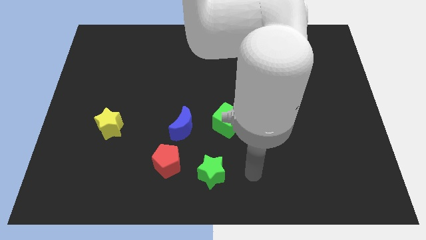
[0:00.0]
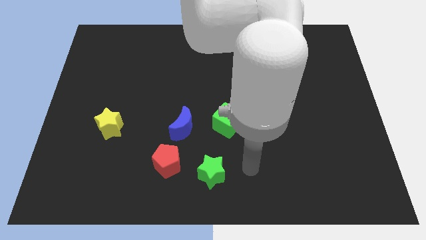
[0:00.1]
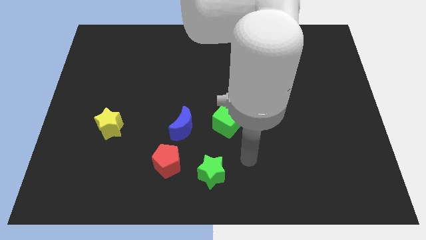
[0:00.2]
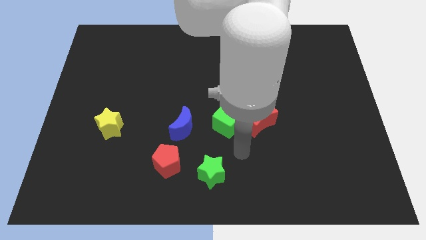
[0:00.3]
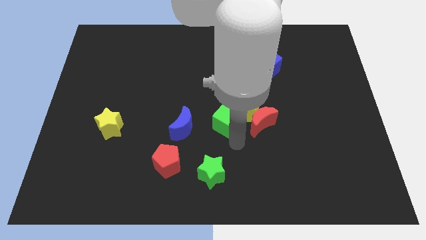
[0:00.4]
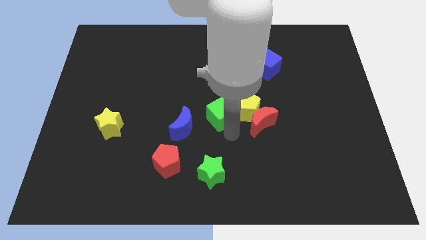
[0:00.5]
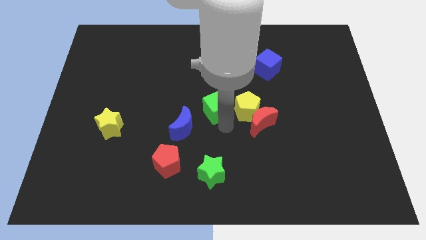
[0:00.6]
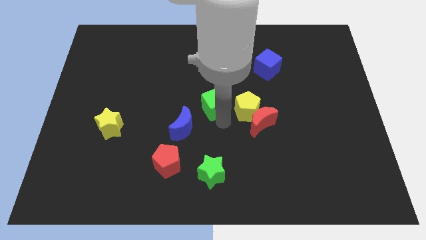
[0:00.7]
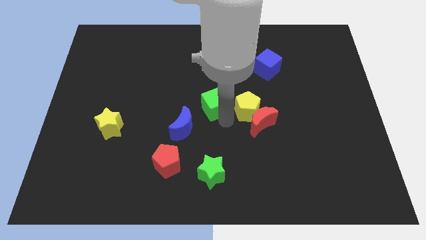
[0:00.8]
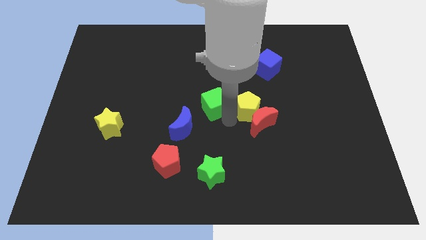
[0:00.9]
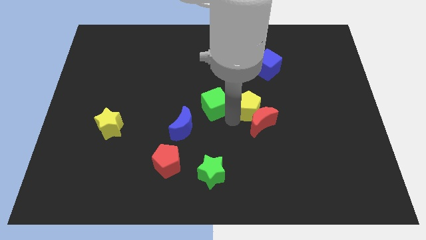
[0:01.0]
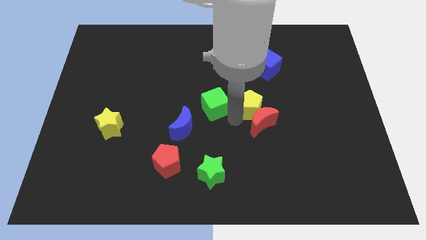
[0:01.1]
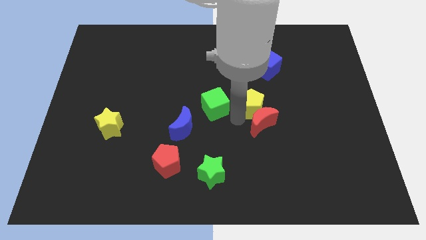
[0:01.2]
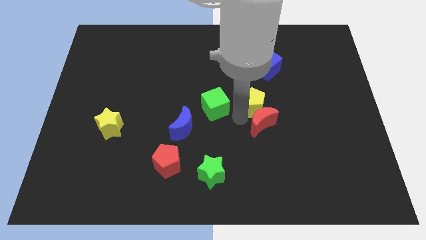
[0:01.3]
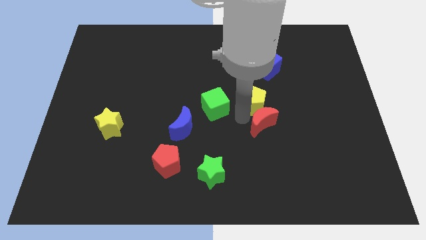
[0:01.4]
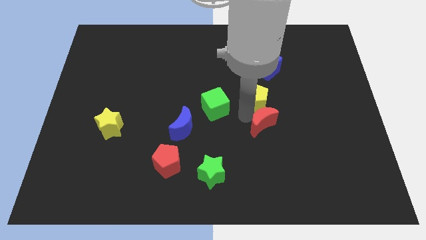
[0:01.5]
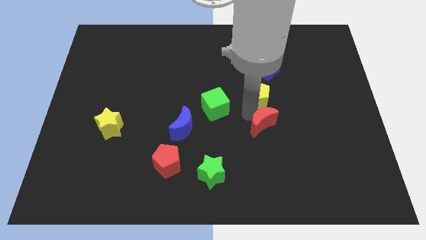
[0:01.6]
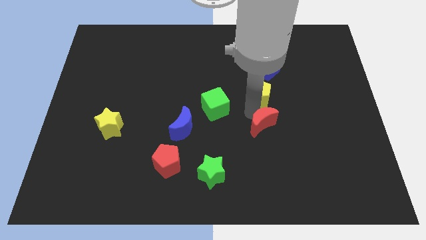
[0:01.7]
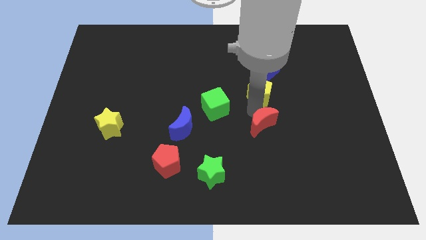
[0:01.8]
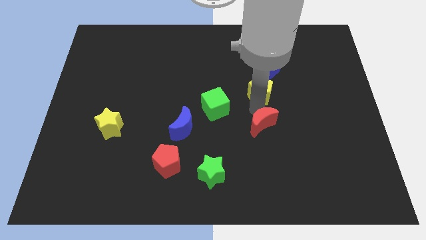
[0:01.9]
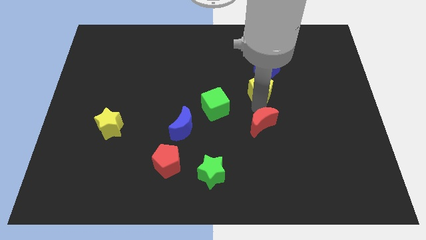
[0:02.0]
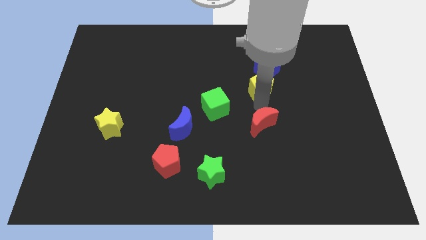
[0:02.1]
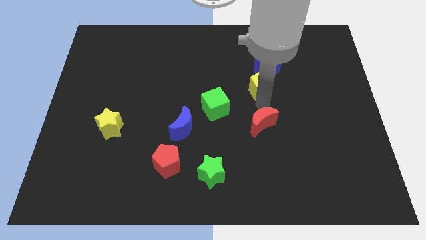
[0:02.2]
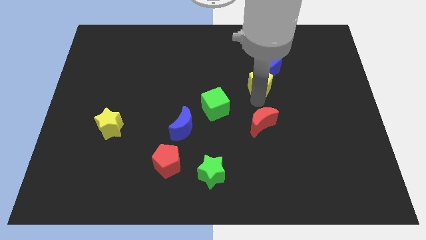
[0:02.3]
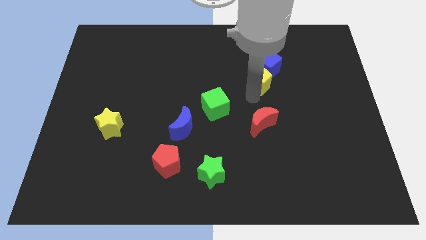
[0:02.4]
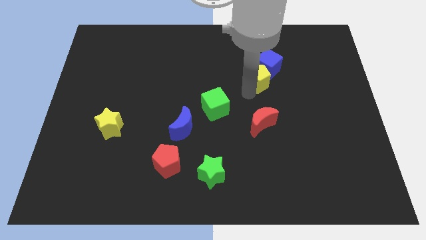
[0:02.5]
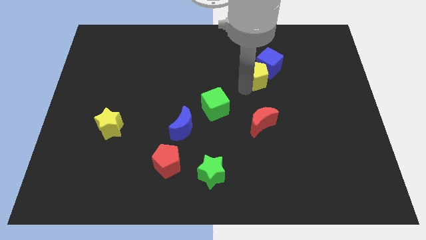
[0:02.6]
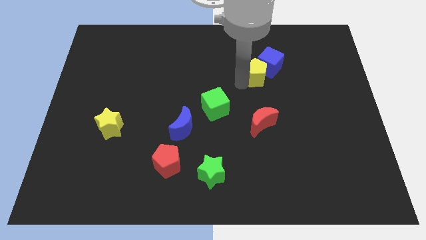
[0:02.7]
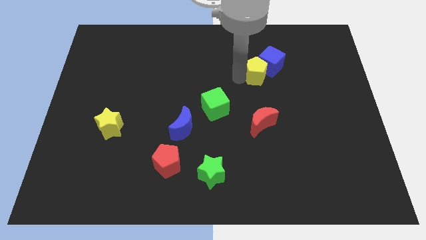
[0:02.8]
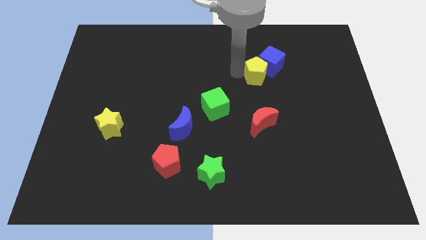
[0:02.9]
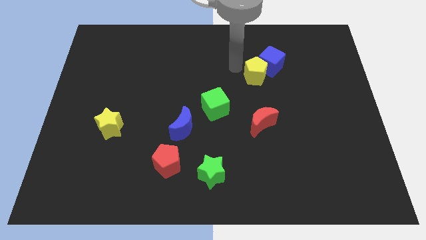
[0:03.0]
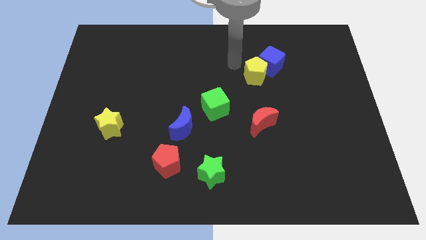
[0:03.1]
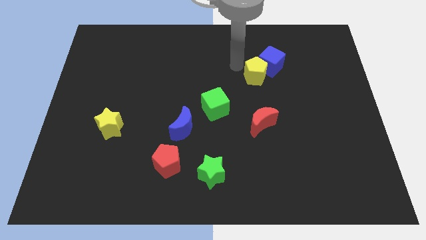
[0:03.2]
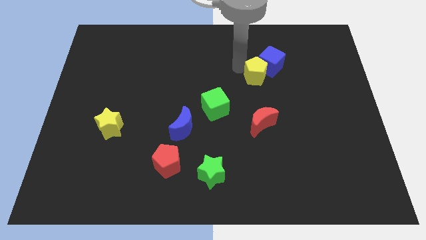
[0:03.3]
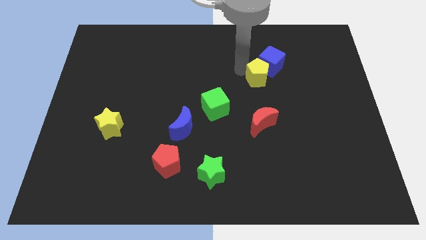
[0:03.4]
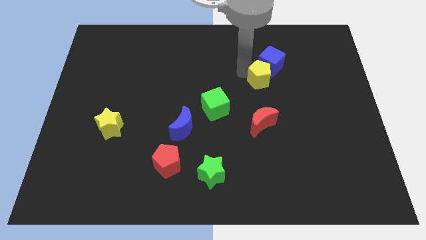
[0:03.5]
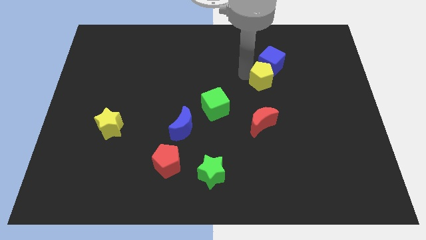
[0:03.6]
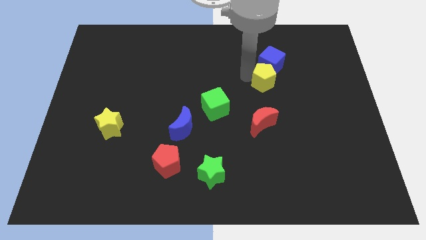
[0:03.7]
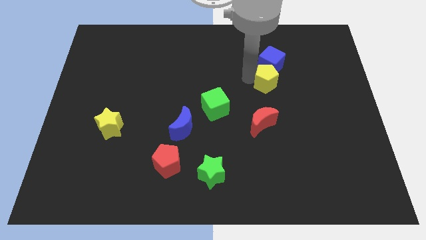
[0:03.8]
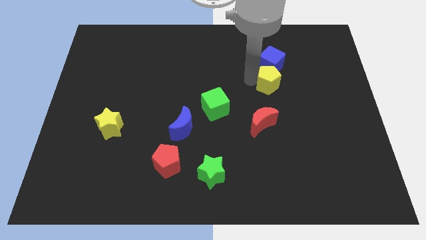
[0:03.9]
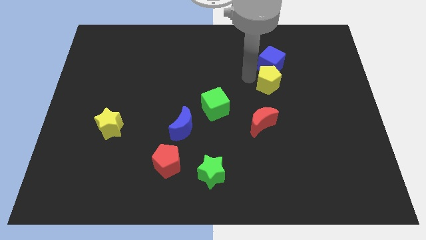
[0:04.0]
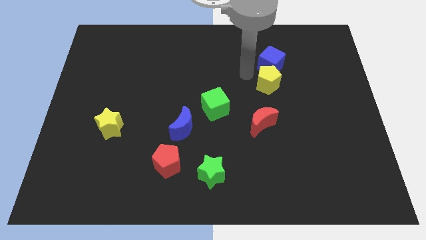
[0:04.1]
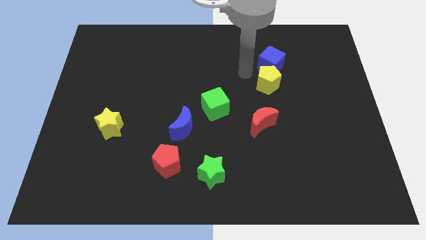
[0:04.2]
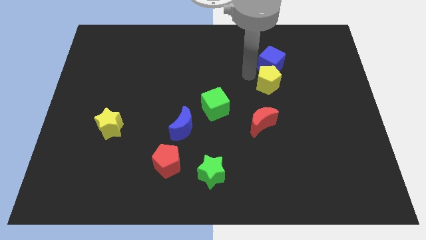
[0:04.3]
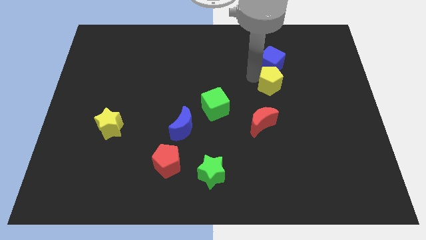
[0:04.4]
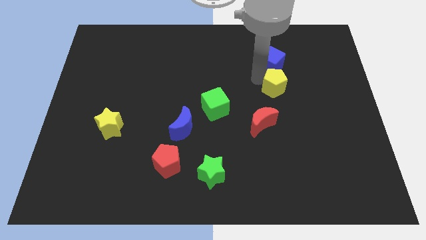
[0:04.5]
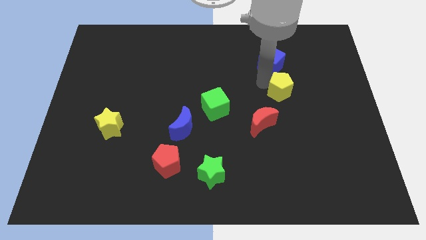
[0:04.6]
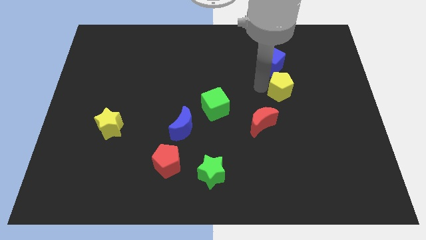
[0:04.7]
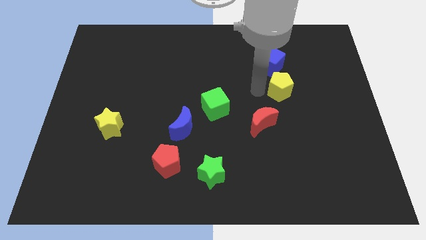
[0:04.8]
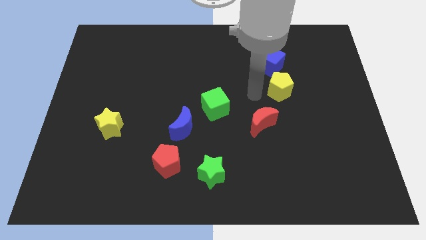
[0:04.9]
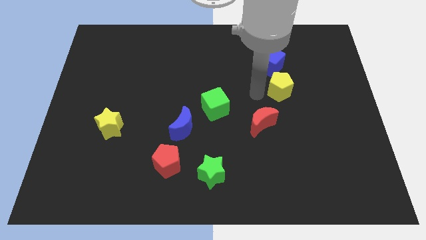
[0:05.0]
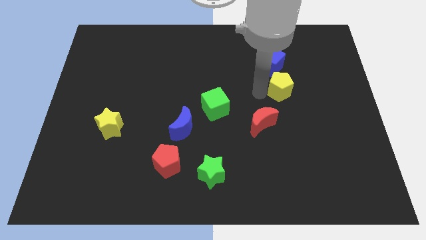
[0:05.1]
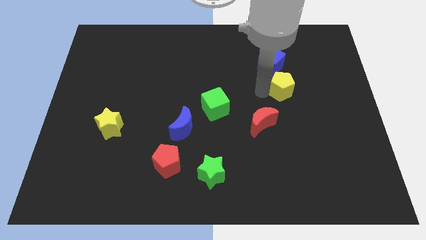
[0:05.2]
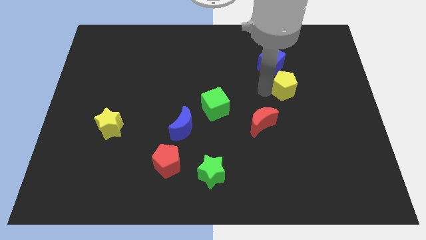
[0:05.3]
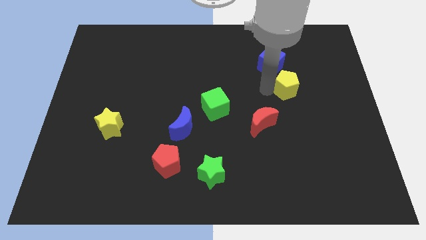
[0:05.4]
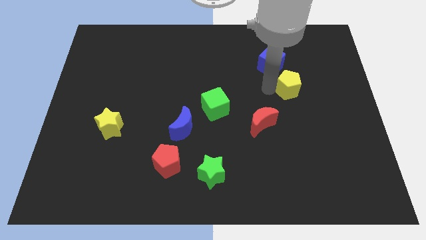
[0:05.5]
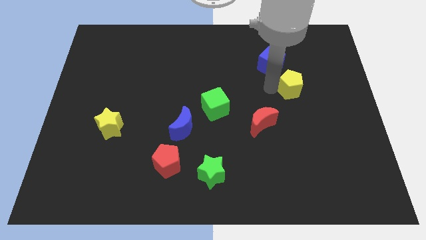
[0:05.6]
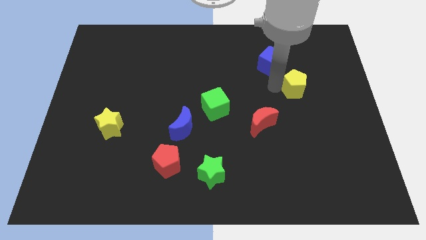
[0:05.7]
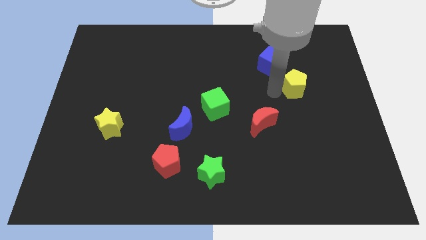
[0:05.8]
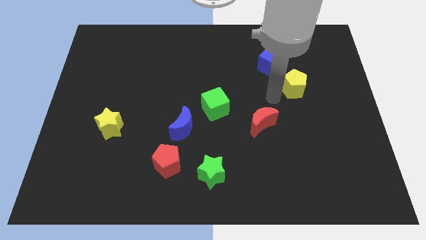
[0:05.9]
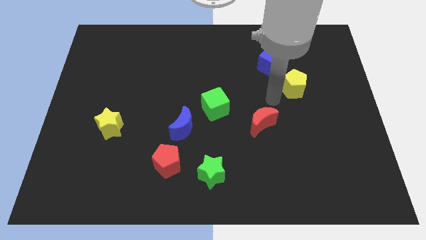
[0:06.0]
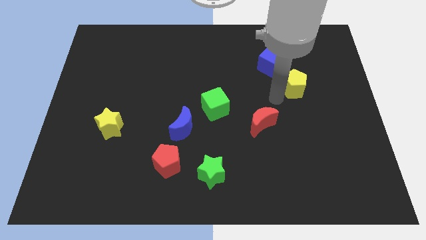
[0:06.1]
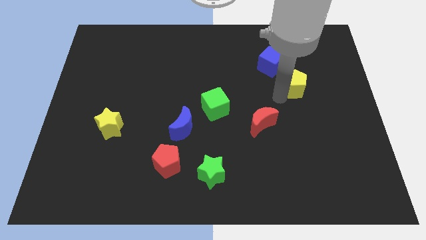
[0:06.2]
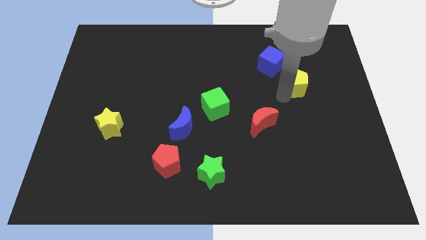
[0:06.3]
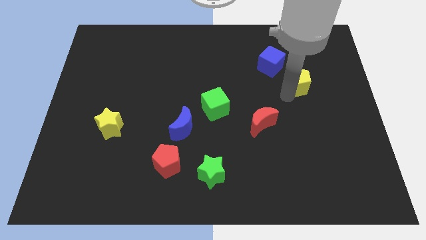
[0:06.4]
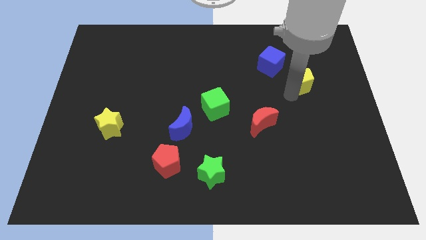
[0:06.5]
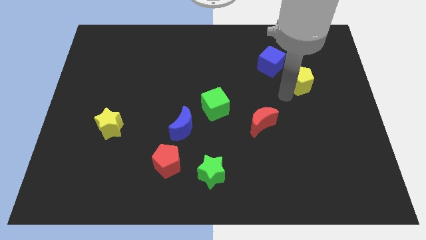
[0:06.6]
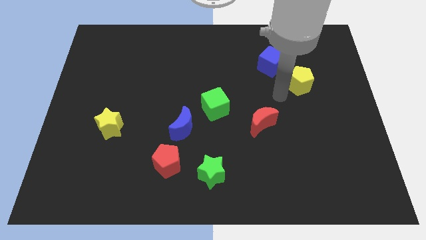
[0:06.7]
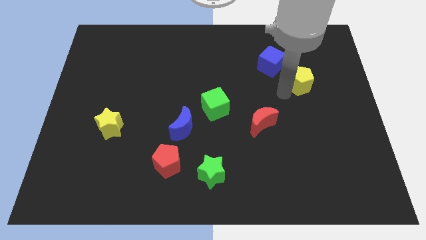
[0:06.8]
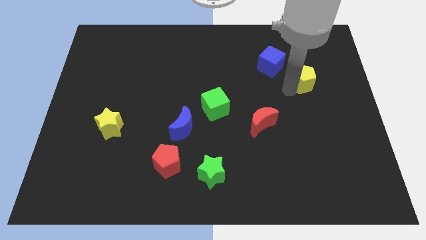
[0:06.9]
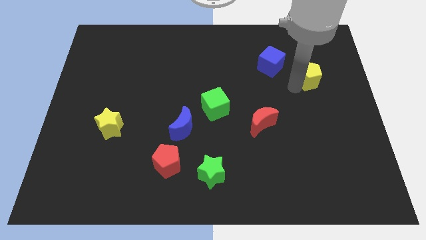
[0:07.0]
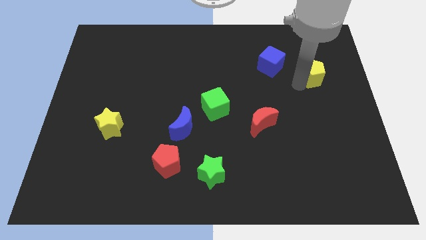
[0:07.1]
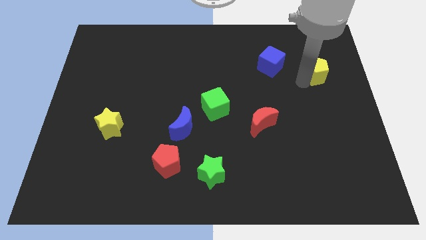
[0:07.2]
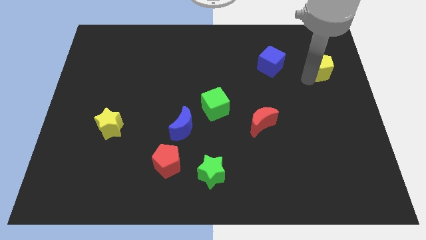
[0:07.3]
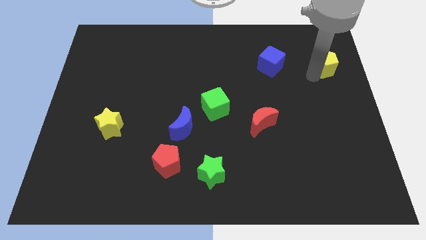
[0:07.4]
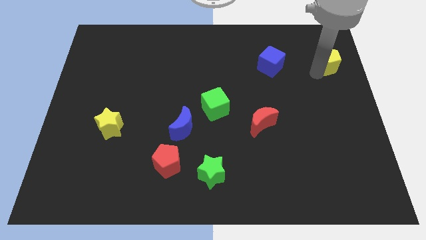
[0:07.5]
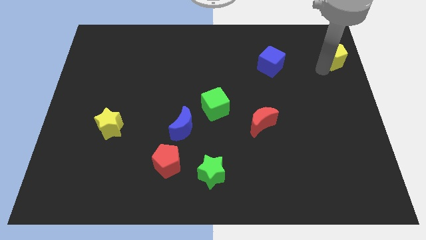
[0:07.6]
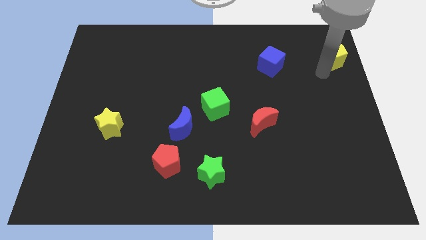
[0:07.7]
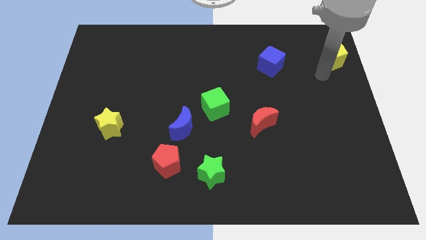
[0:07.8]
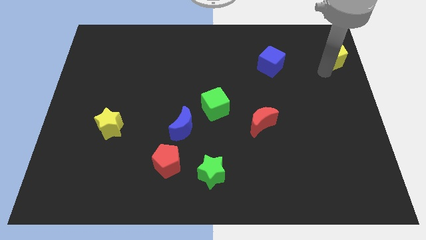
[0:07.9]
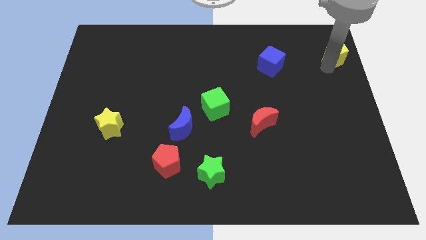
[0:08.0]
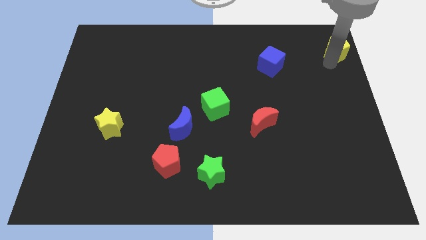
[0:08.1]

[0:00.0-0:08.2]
put the yellow pentagon to the upper right corner
